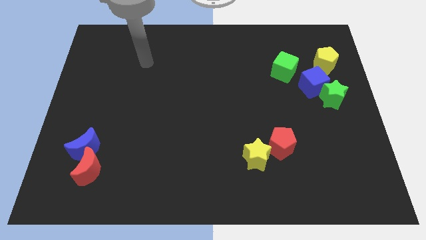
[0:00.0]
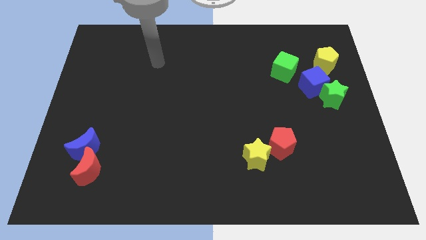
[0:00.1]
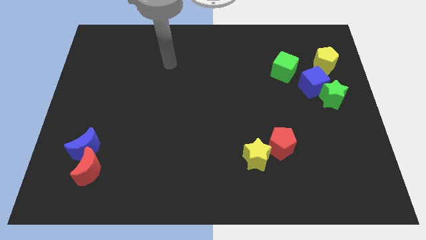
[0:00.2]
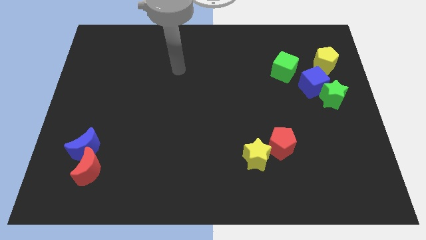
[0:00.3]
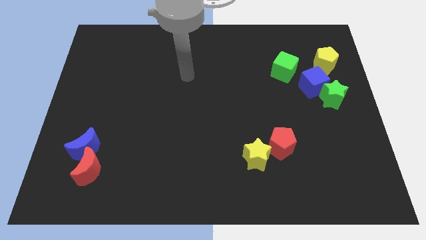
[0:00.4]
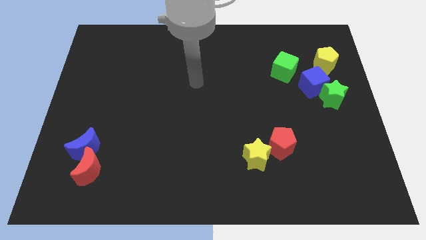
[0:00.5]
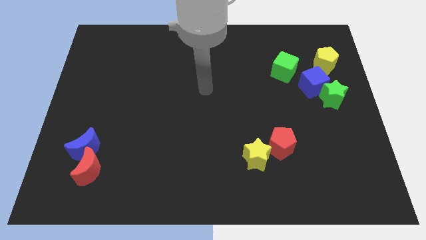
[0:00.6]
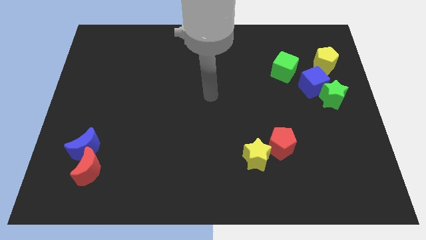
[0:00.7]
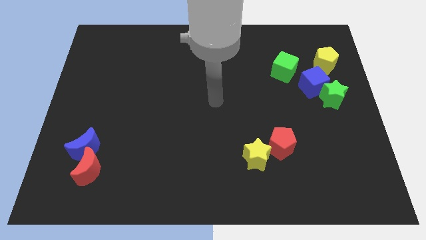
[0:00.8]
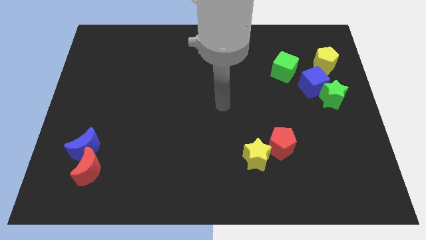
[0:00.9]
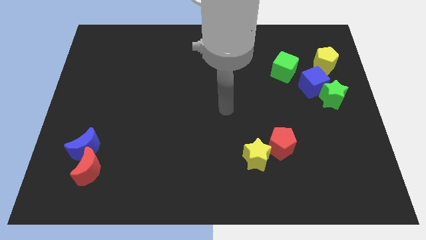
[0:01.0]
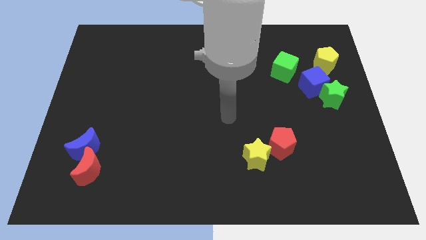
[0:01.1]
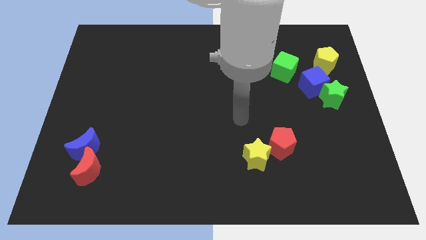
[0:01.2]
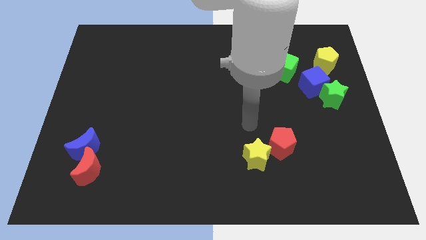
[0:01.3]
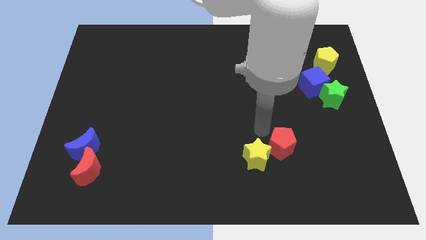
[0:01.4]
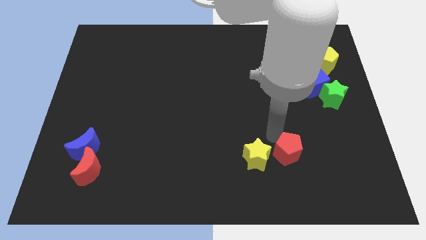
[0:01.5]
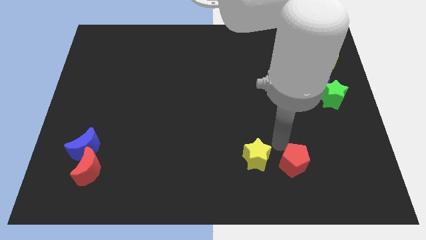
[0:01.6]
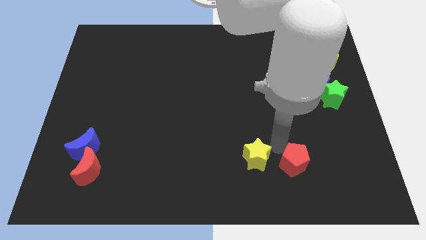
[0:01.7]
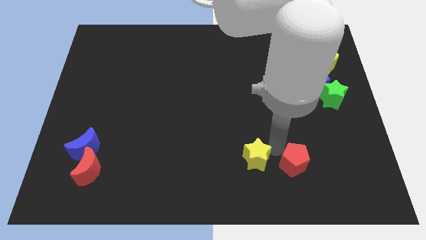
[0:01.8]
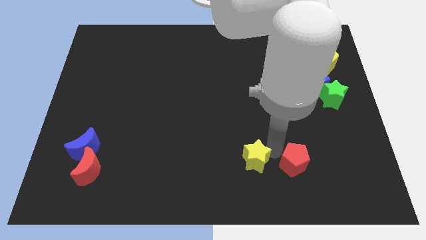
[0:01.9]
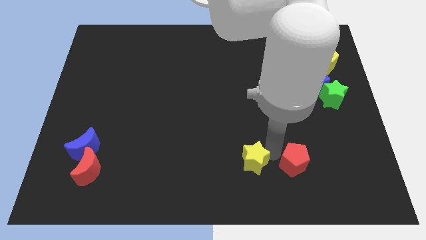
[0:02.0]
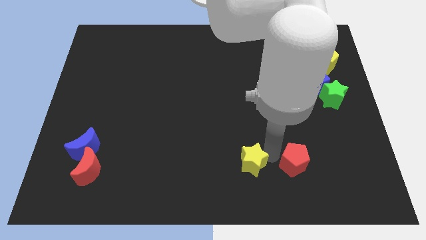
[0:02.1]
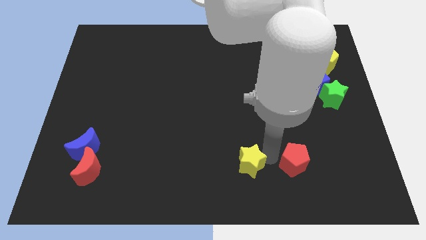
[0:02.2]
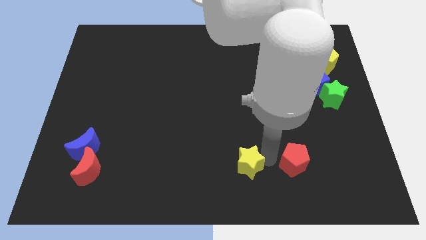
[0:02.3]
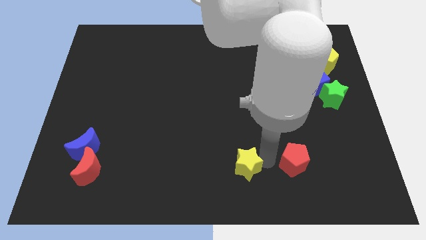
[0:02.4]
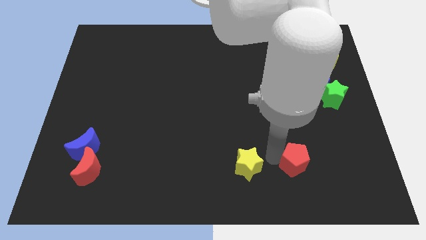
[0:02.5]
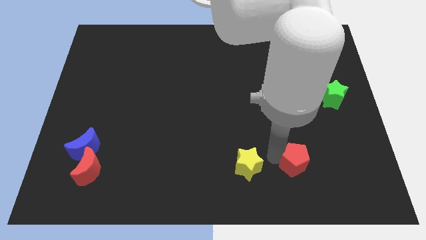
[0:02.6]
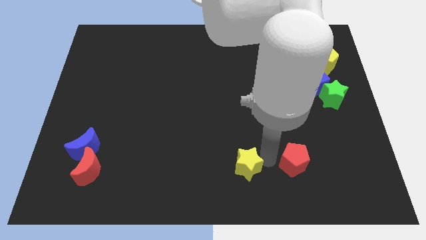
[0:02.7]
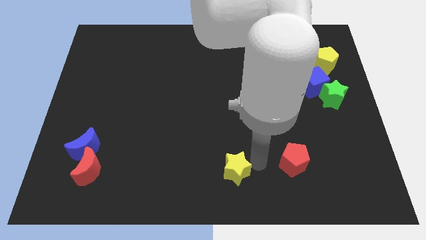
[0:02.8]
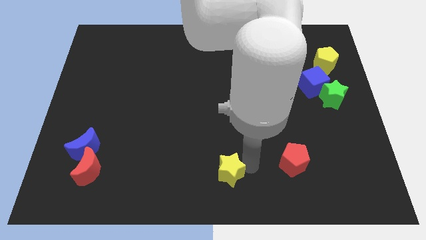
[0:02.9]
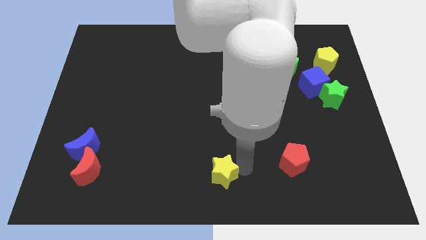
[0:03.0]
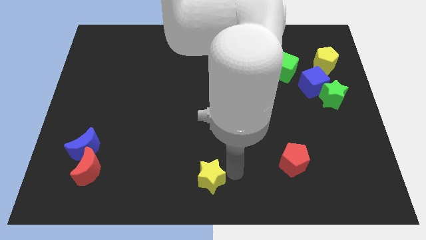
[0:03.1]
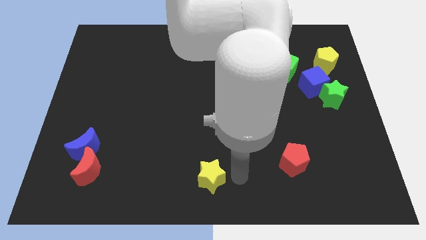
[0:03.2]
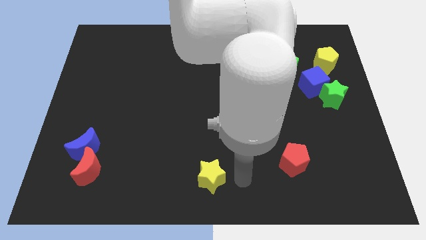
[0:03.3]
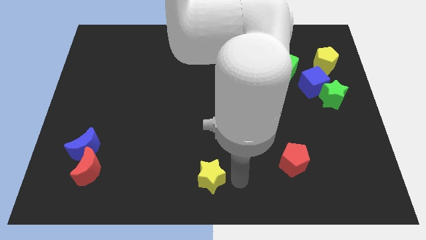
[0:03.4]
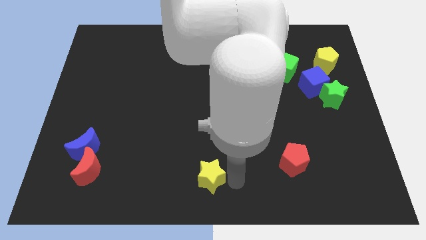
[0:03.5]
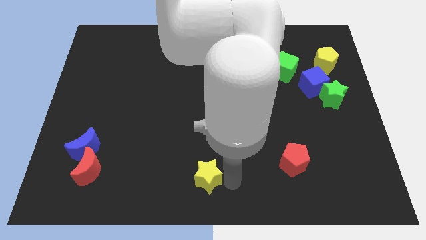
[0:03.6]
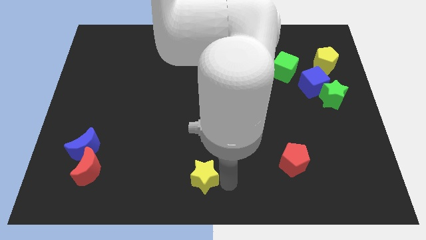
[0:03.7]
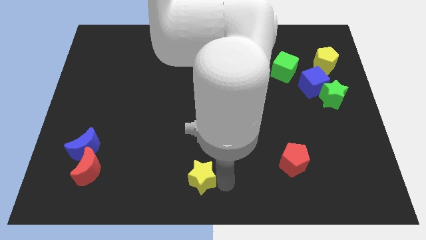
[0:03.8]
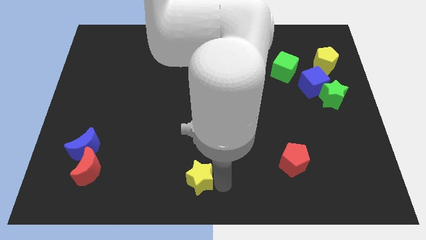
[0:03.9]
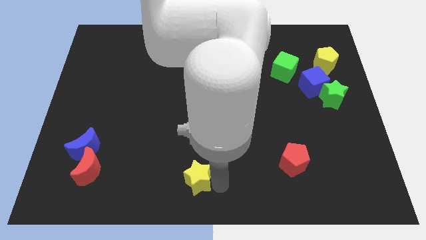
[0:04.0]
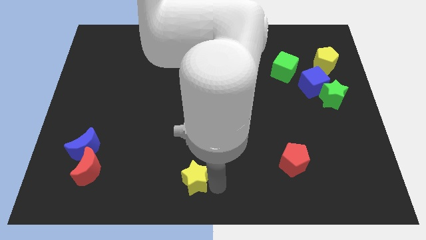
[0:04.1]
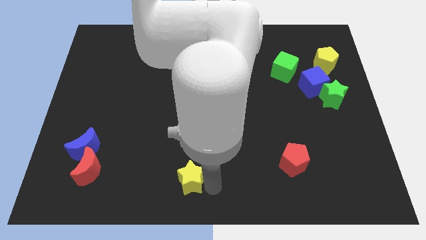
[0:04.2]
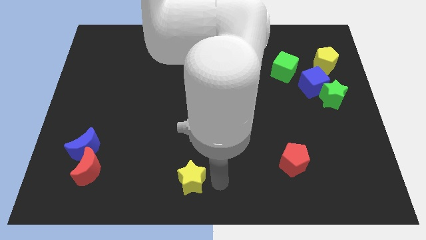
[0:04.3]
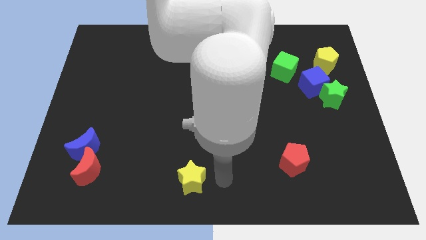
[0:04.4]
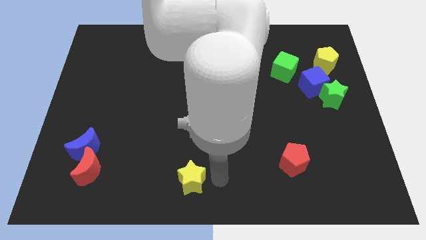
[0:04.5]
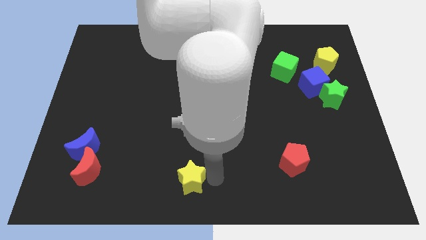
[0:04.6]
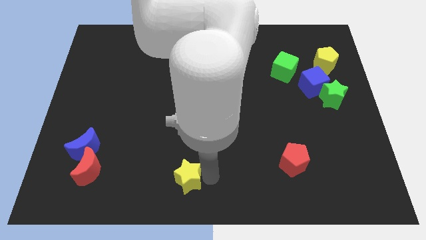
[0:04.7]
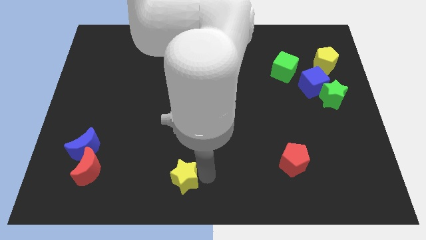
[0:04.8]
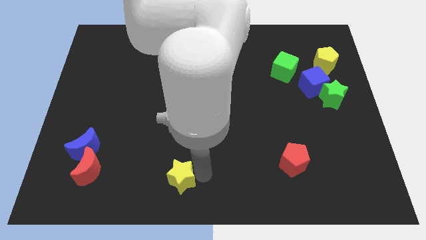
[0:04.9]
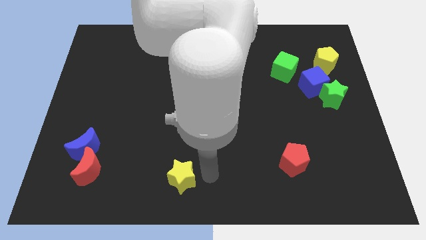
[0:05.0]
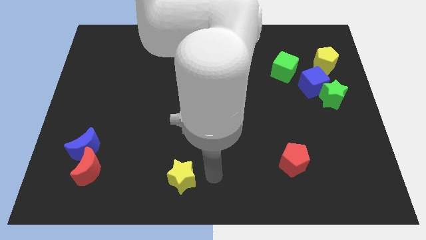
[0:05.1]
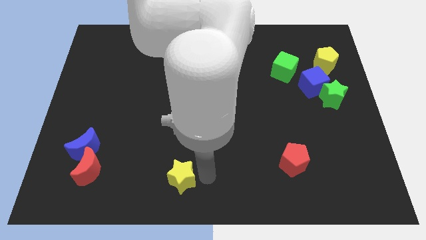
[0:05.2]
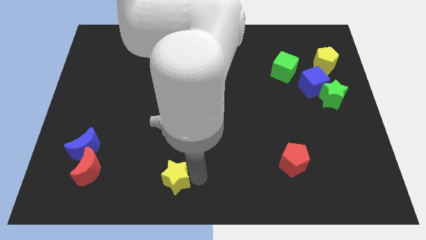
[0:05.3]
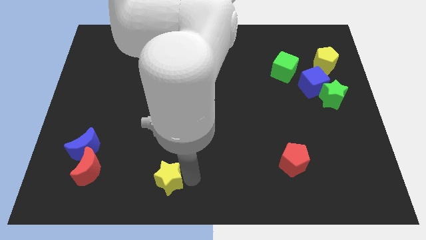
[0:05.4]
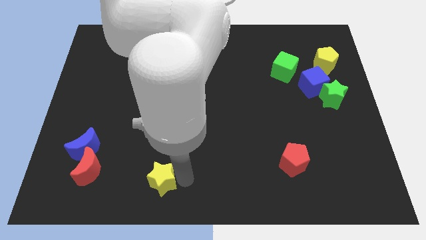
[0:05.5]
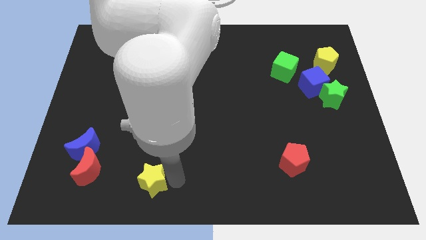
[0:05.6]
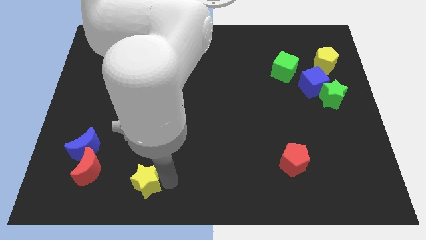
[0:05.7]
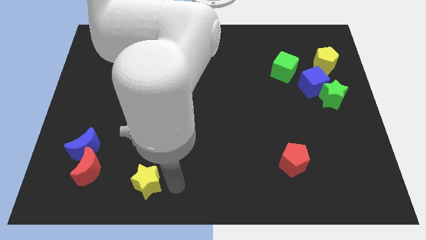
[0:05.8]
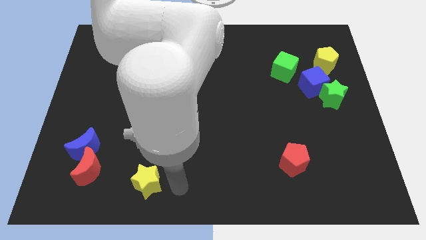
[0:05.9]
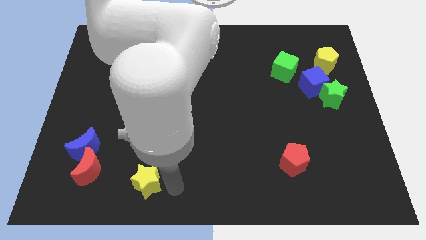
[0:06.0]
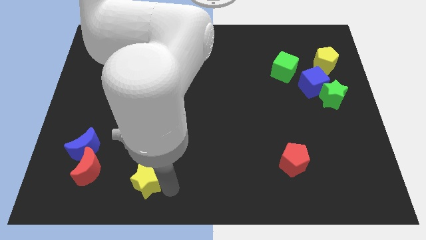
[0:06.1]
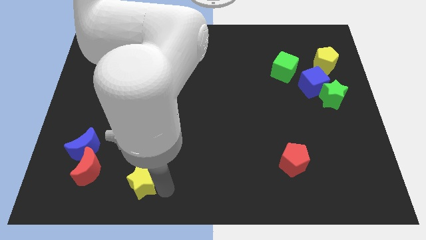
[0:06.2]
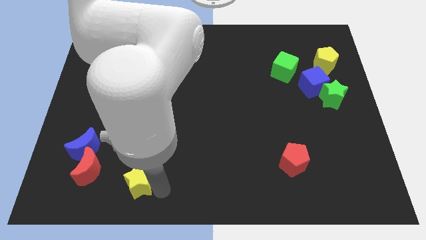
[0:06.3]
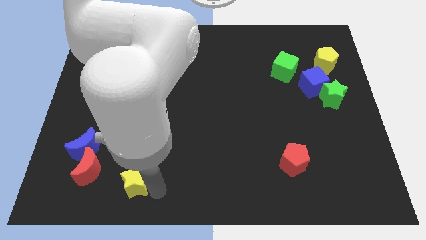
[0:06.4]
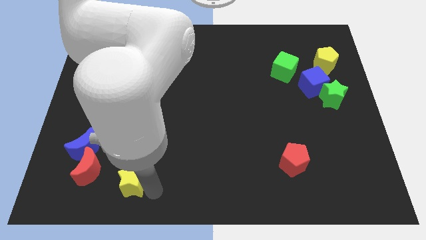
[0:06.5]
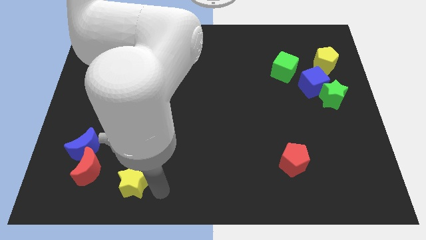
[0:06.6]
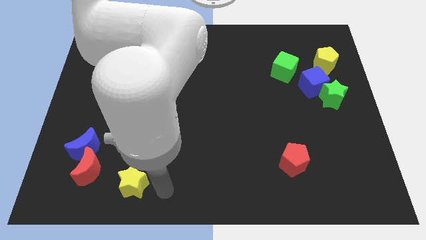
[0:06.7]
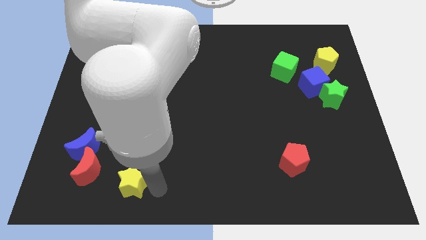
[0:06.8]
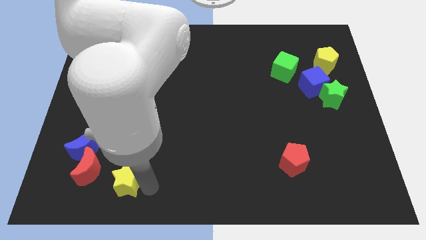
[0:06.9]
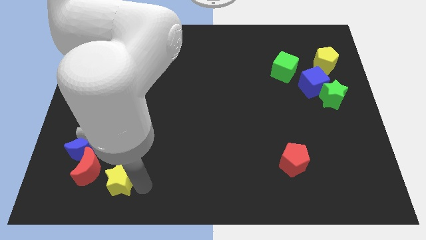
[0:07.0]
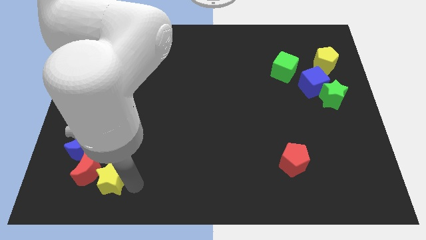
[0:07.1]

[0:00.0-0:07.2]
slide the yellow star towards the red moon

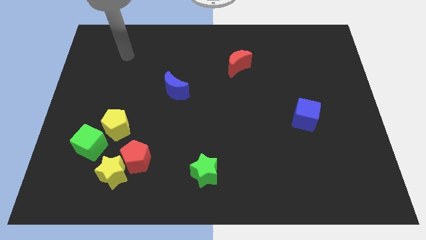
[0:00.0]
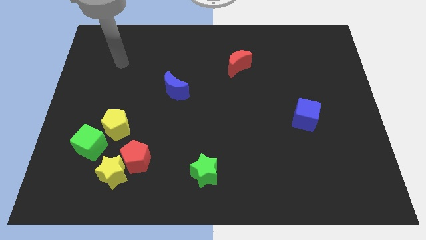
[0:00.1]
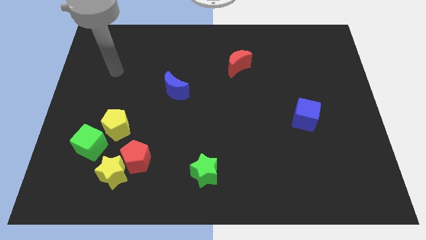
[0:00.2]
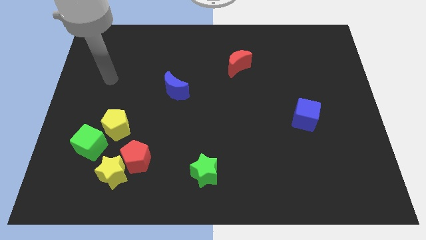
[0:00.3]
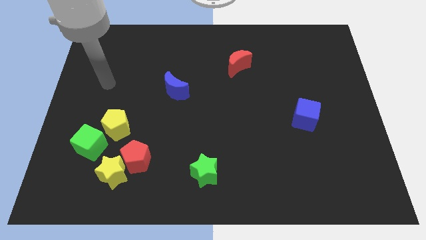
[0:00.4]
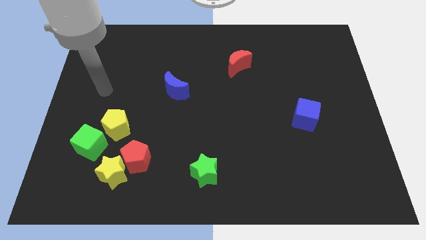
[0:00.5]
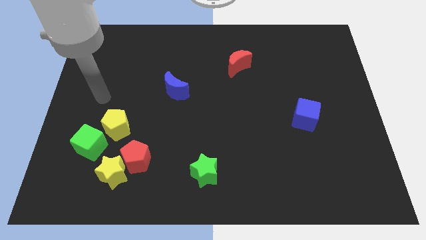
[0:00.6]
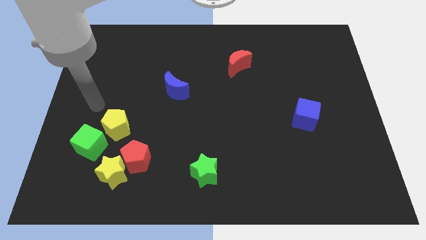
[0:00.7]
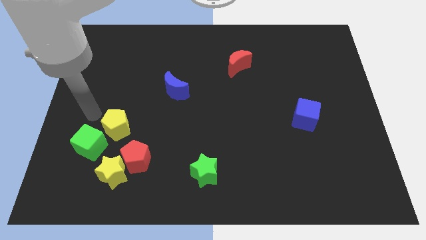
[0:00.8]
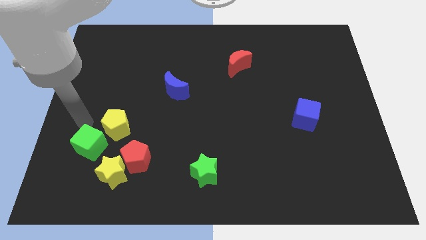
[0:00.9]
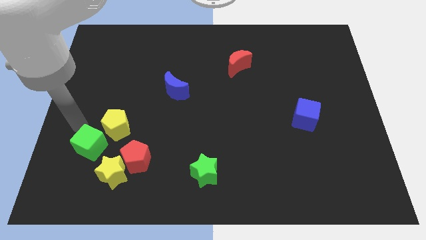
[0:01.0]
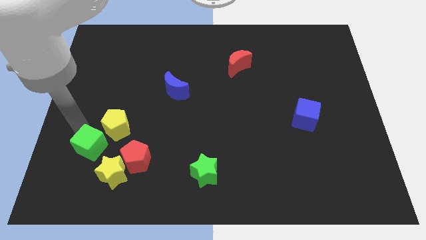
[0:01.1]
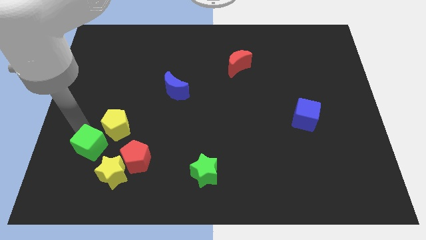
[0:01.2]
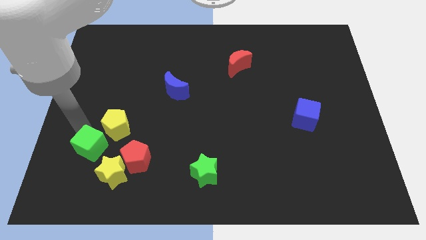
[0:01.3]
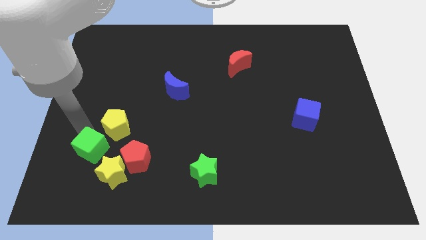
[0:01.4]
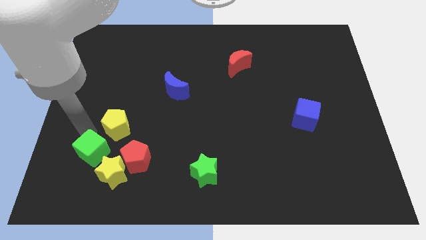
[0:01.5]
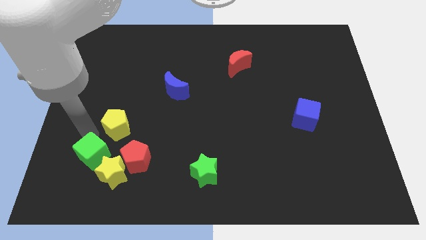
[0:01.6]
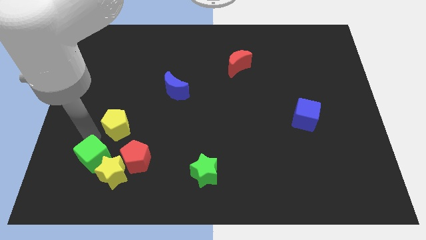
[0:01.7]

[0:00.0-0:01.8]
move the green cube next to the yellow star
